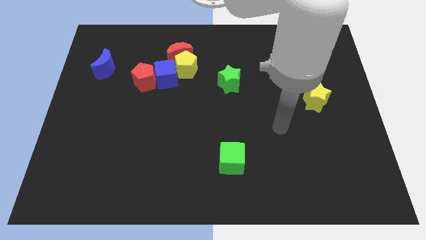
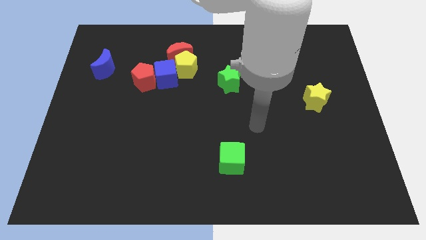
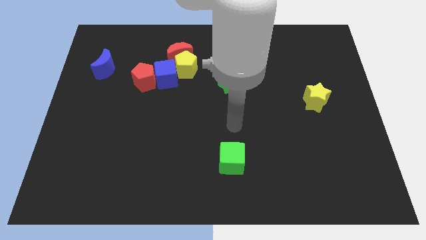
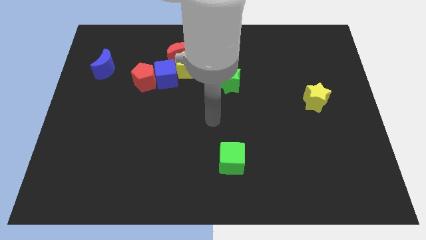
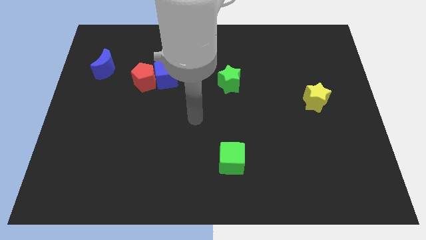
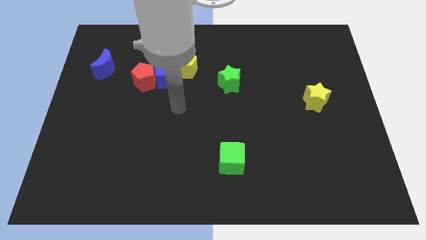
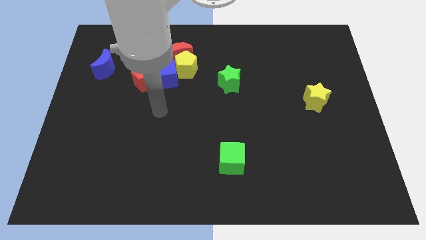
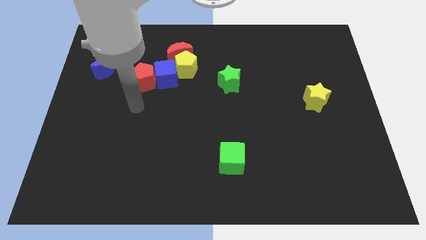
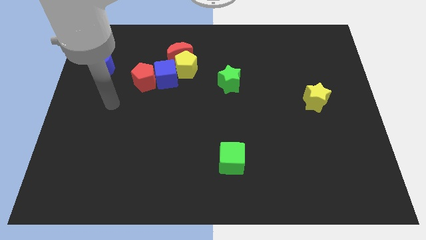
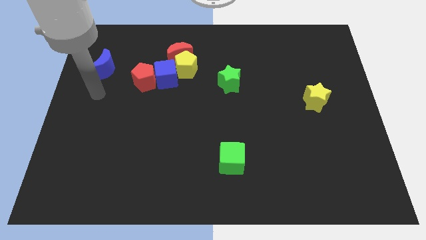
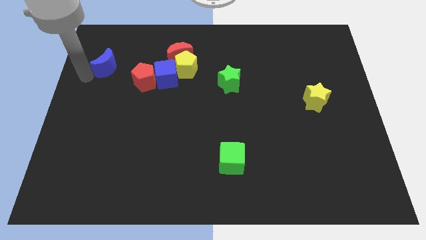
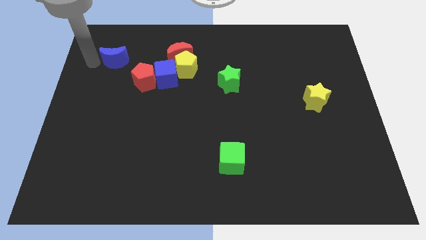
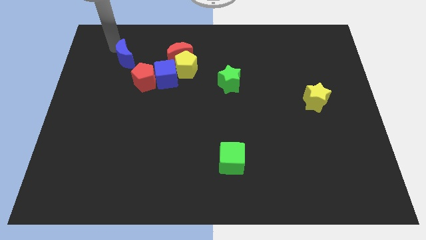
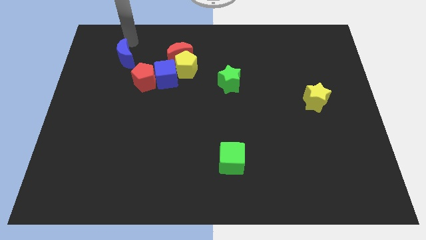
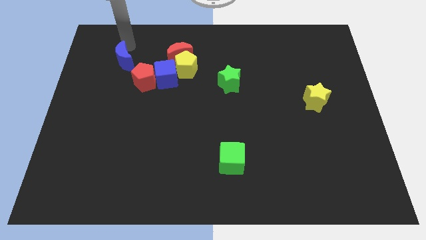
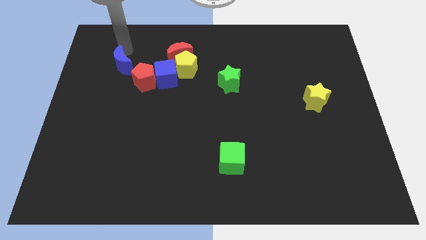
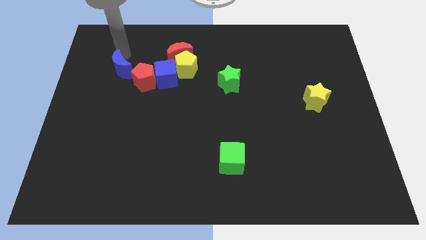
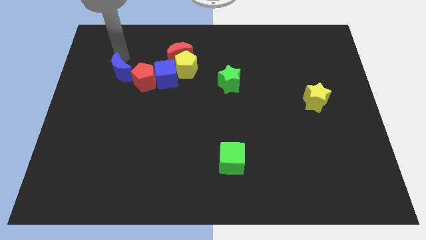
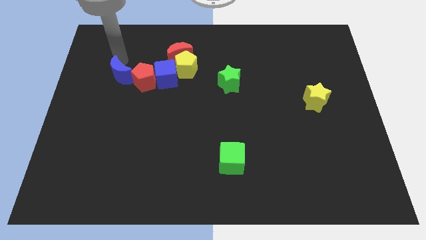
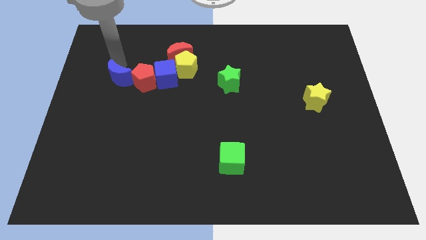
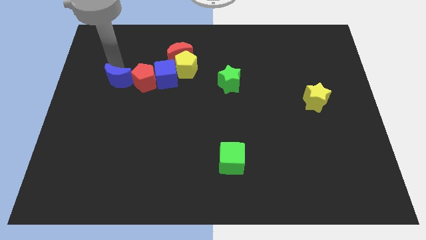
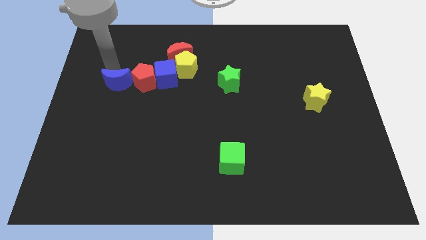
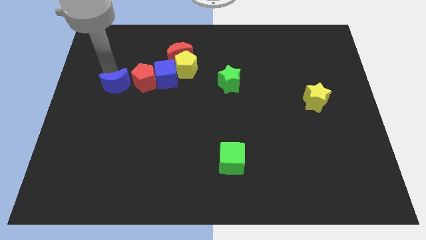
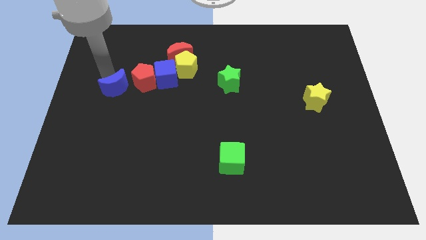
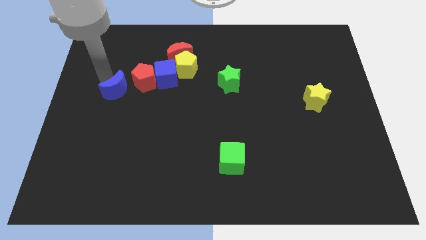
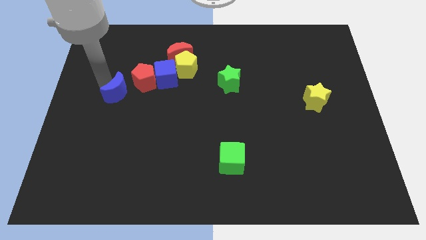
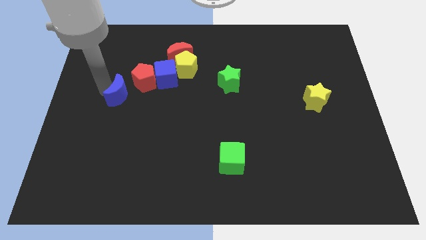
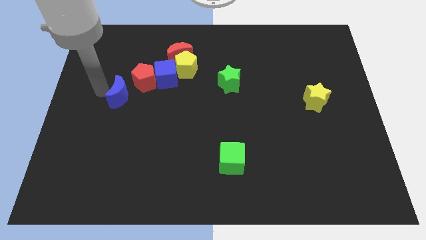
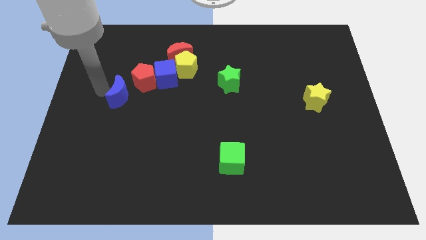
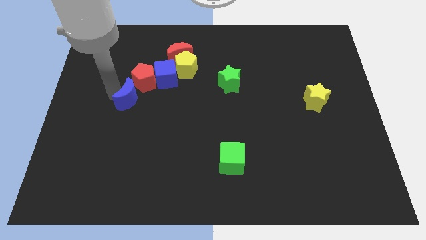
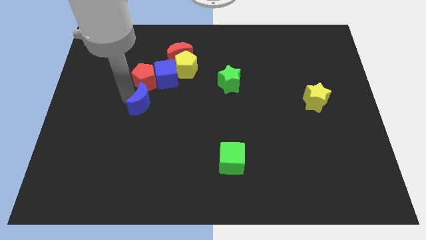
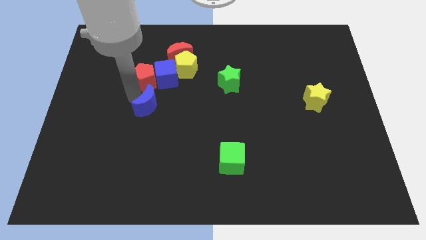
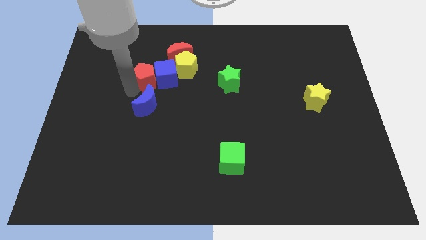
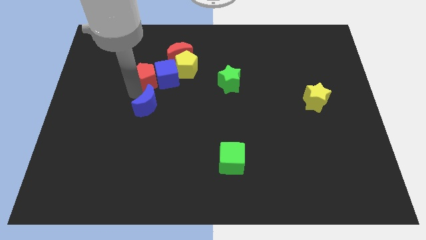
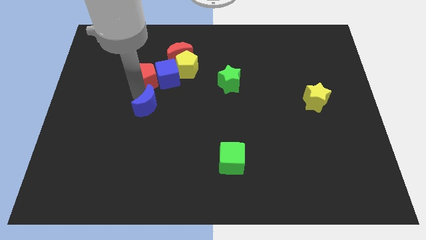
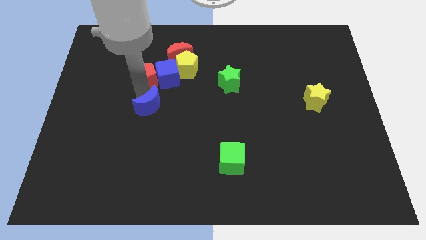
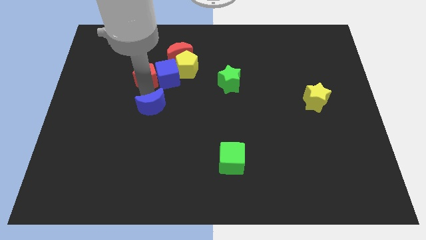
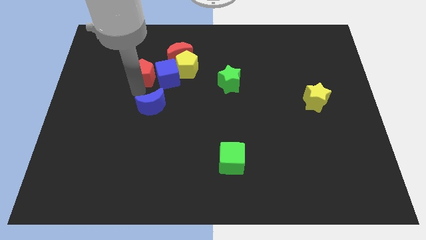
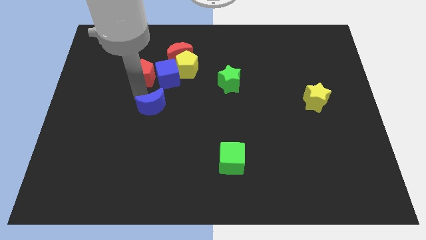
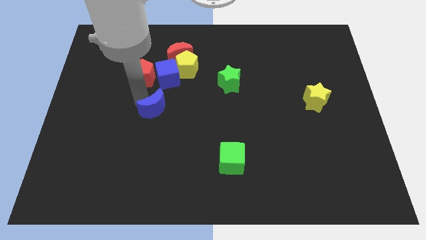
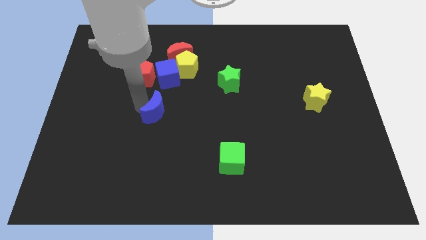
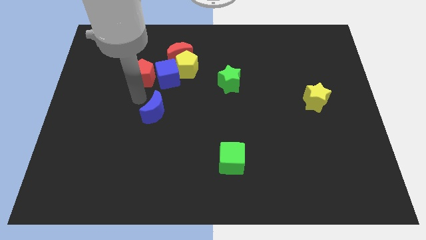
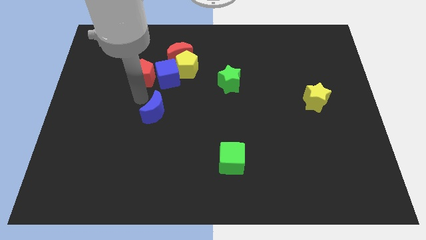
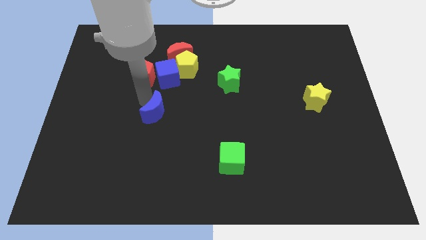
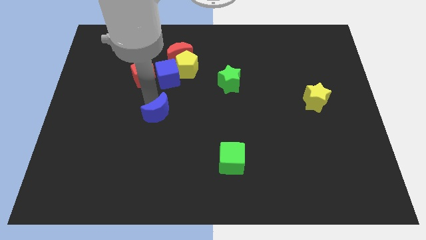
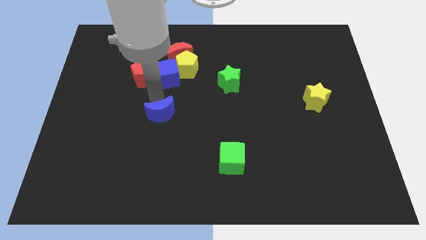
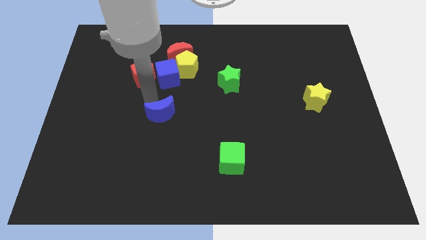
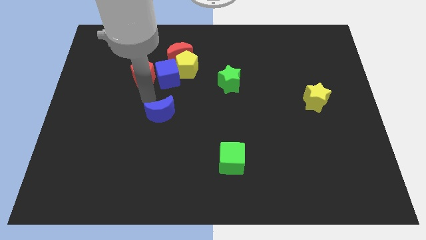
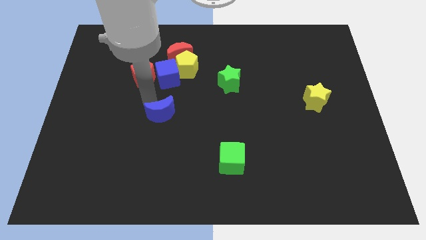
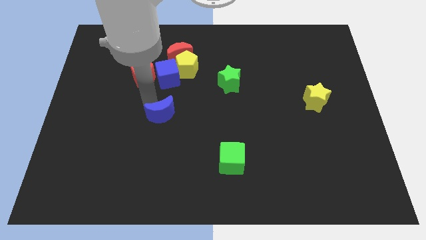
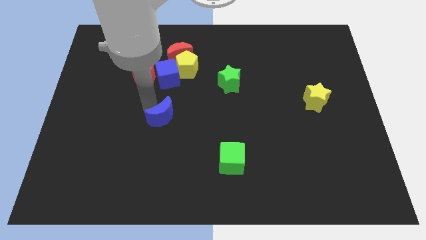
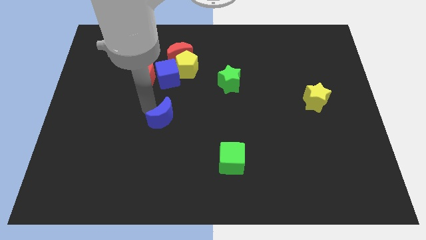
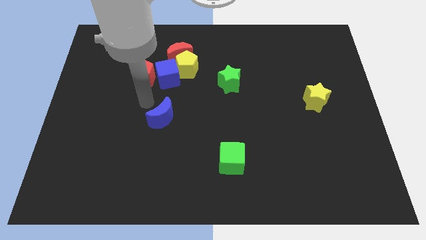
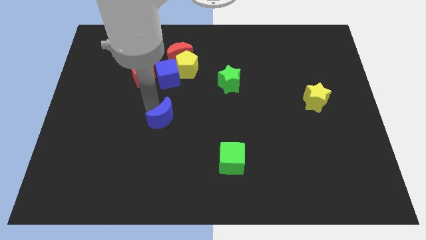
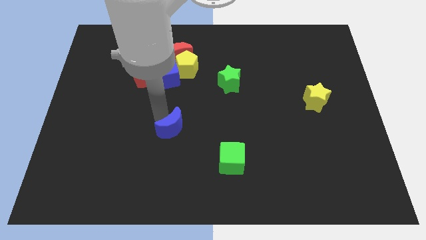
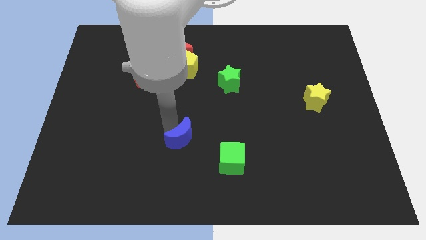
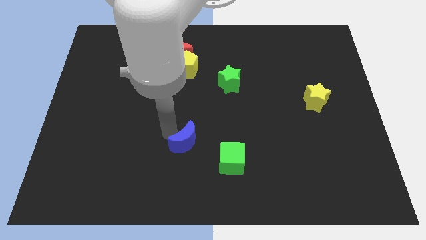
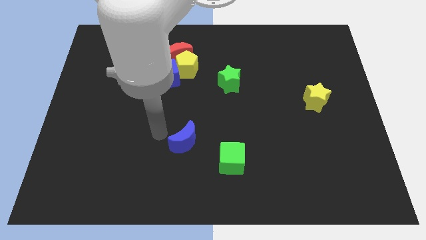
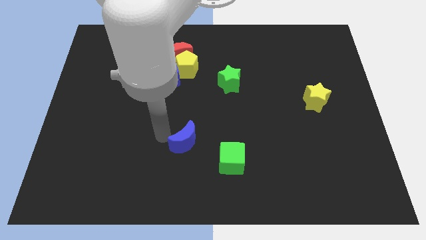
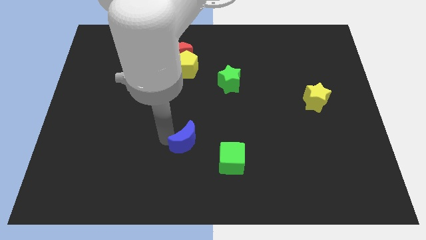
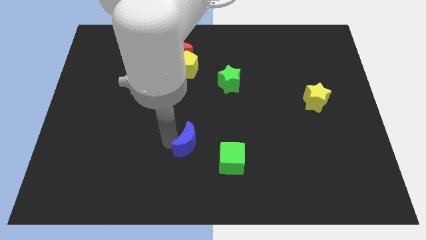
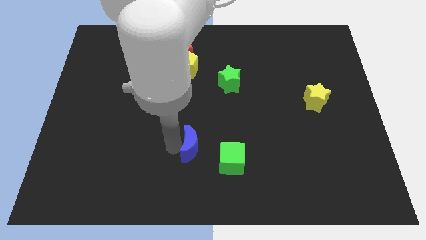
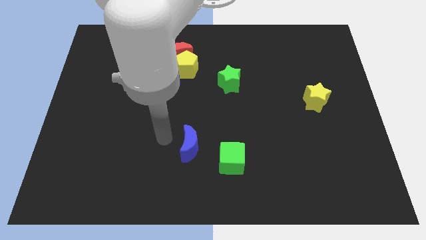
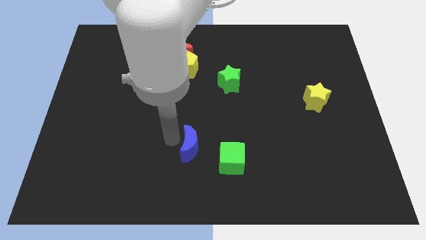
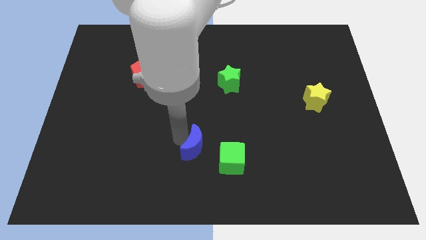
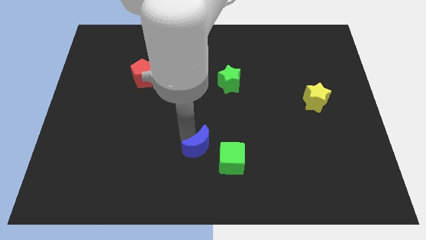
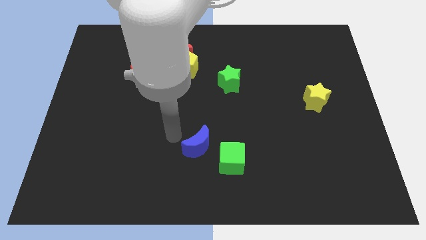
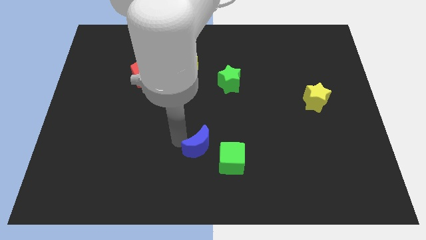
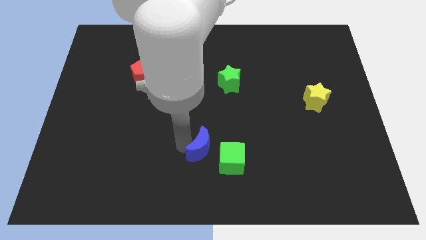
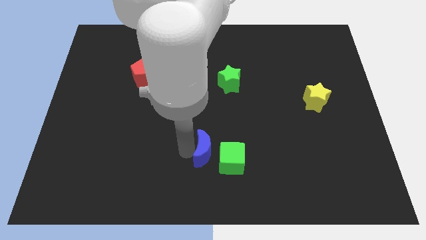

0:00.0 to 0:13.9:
move the blue moon towards the green cube

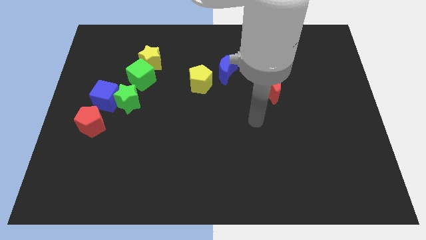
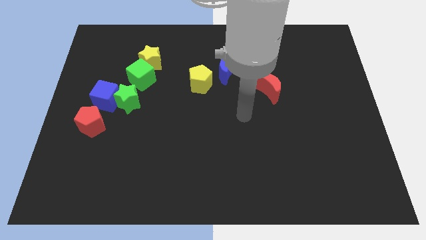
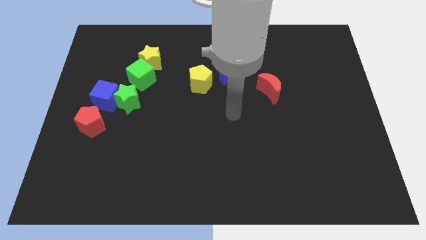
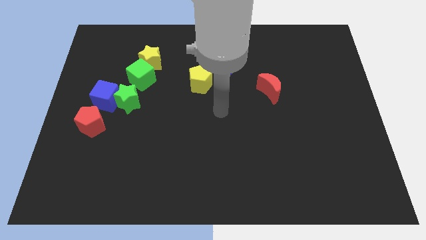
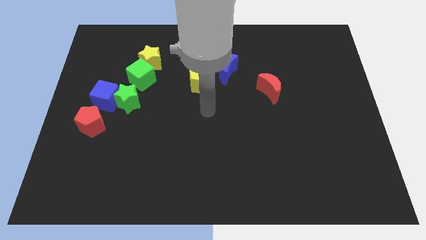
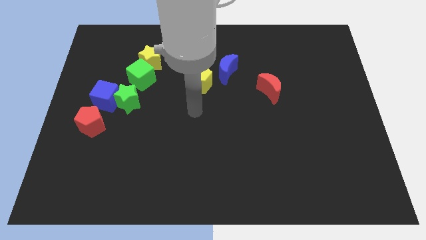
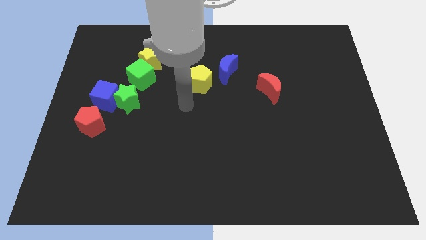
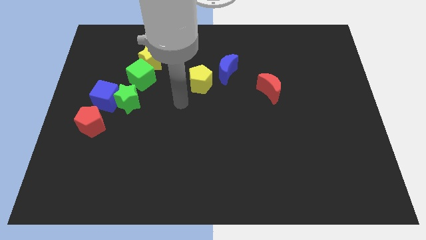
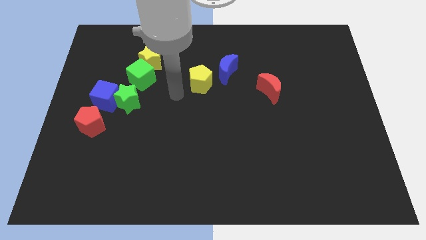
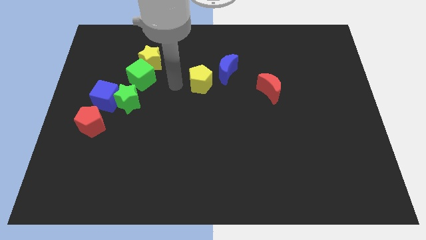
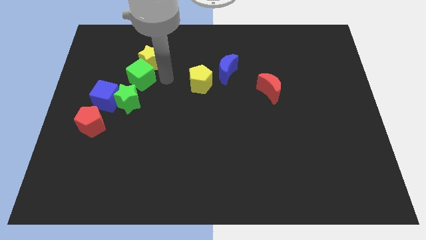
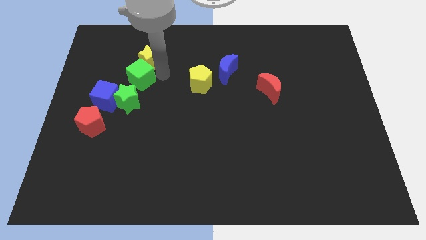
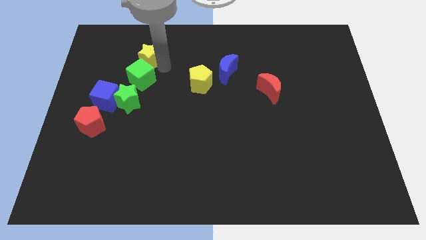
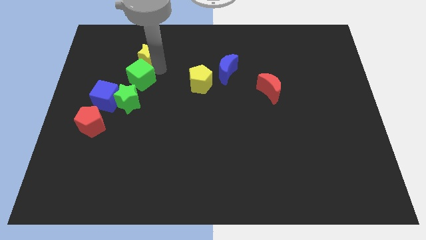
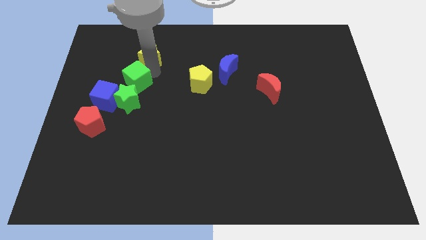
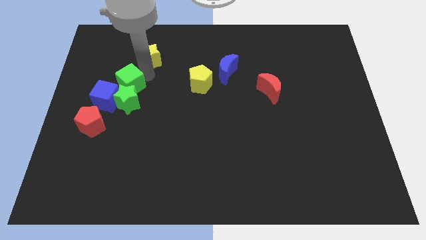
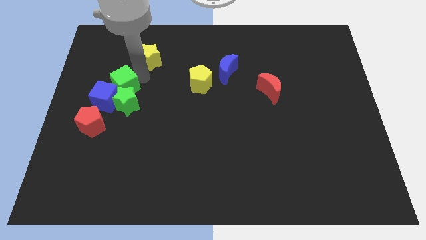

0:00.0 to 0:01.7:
slide the green cube close to the blue cube
